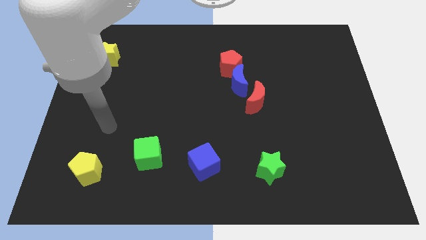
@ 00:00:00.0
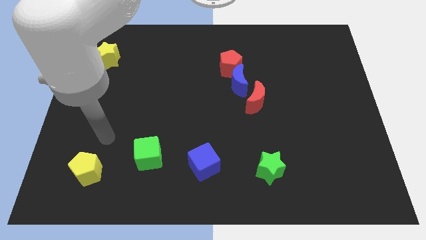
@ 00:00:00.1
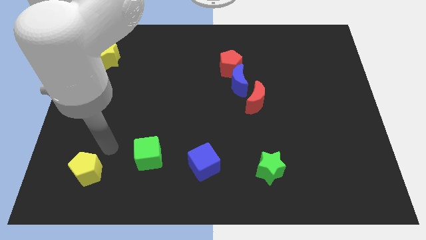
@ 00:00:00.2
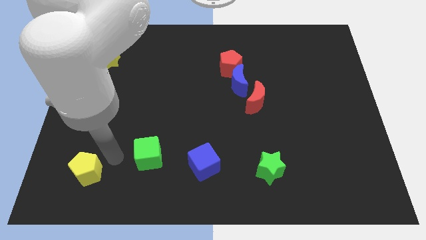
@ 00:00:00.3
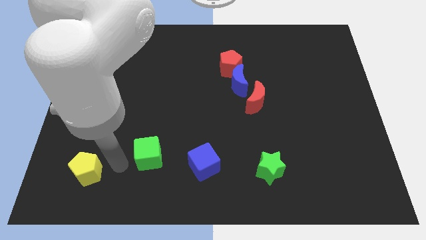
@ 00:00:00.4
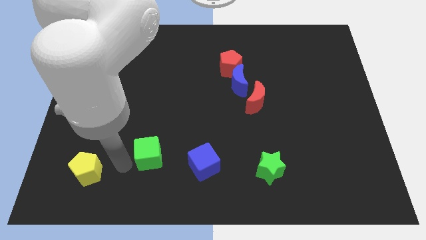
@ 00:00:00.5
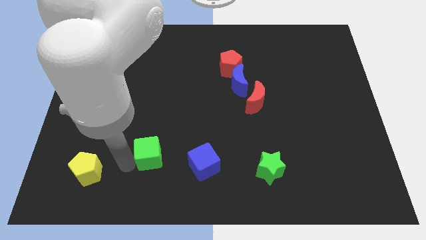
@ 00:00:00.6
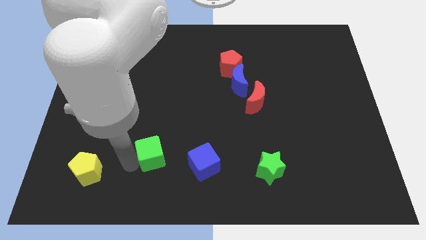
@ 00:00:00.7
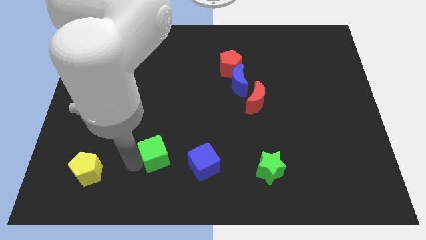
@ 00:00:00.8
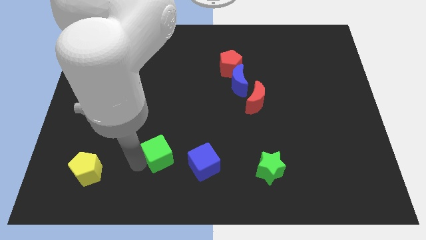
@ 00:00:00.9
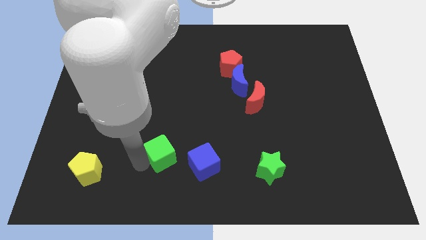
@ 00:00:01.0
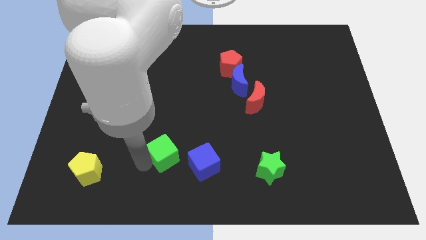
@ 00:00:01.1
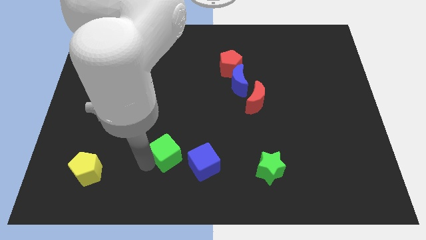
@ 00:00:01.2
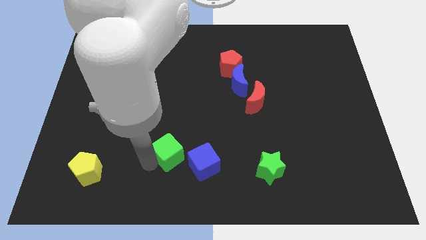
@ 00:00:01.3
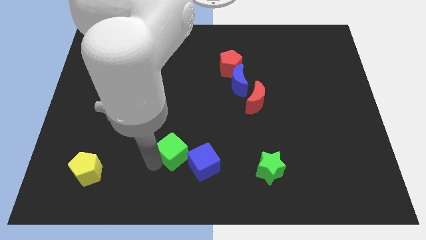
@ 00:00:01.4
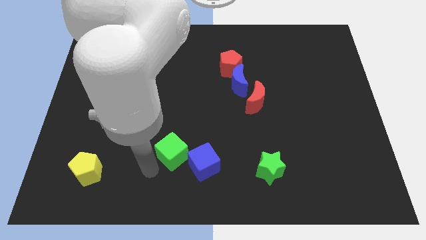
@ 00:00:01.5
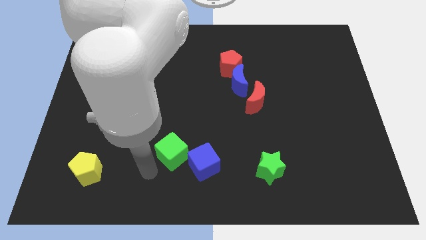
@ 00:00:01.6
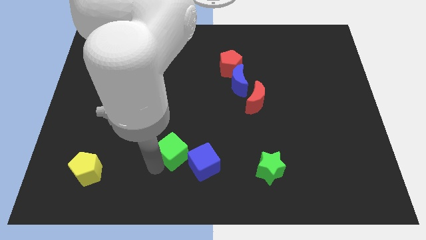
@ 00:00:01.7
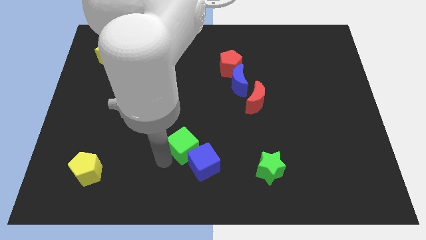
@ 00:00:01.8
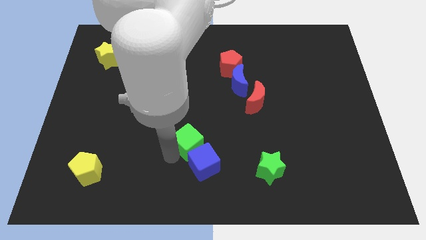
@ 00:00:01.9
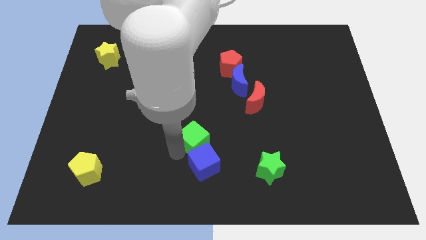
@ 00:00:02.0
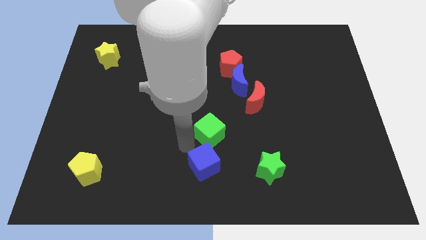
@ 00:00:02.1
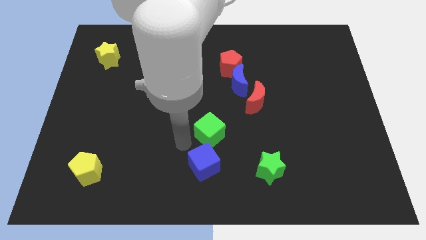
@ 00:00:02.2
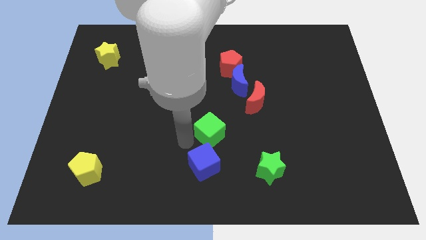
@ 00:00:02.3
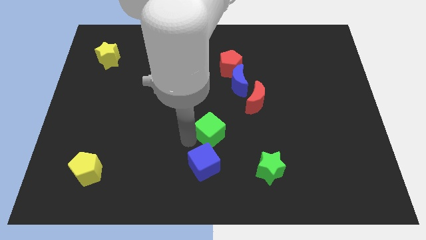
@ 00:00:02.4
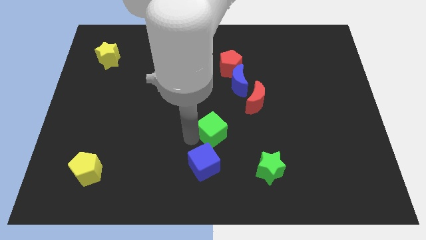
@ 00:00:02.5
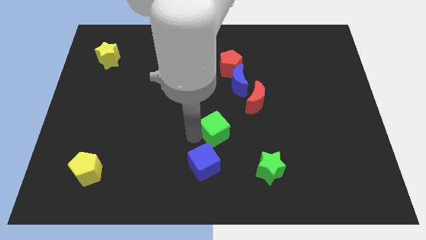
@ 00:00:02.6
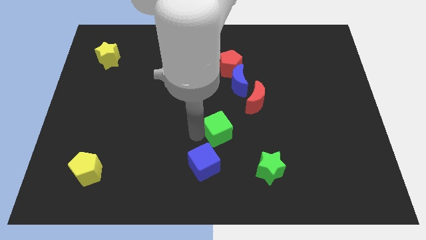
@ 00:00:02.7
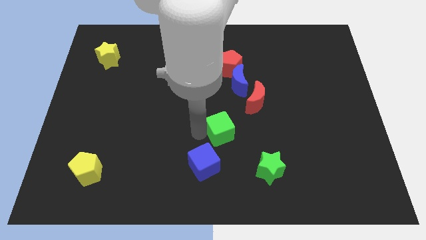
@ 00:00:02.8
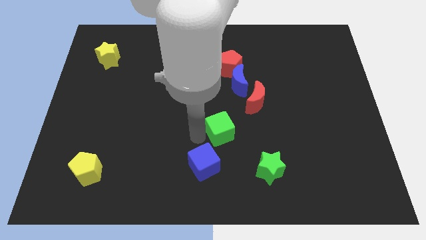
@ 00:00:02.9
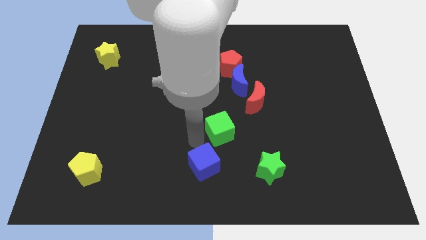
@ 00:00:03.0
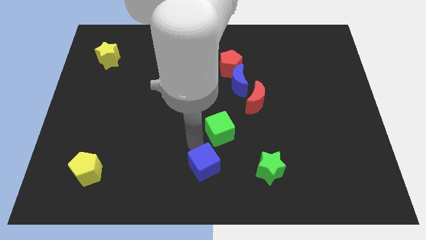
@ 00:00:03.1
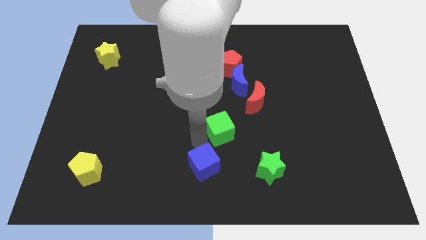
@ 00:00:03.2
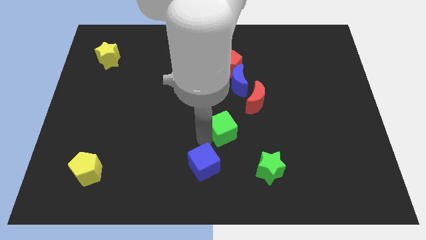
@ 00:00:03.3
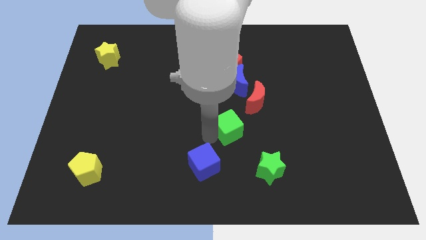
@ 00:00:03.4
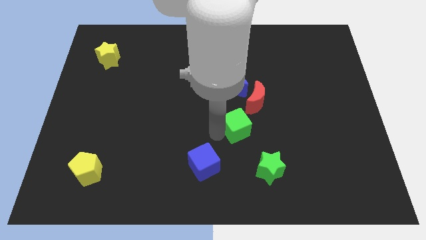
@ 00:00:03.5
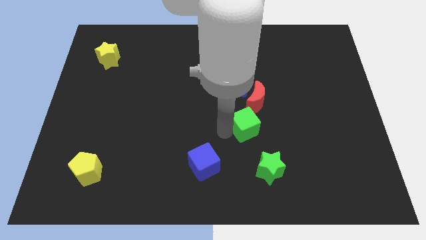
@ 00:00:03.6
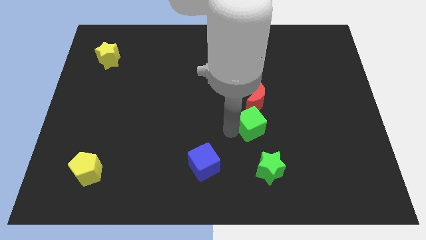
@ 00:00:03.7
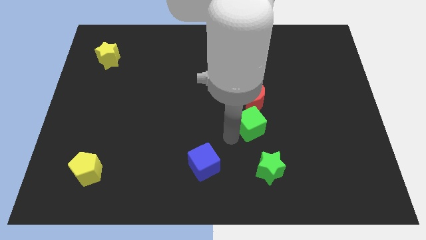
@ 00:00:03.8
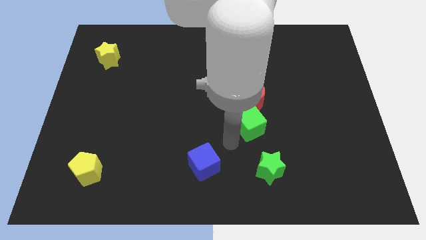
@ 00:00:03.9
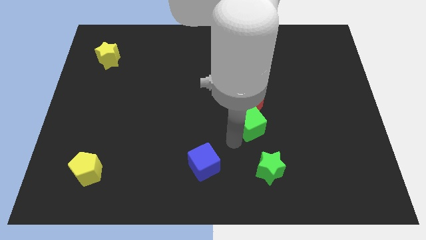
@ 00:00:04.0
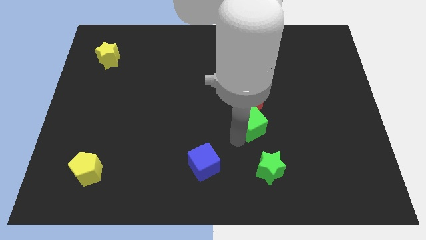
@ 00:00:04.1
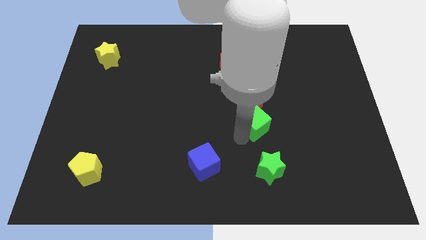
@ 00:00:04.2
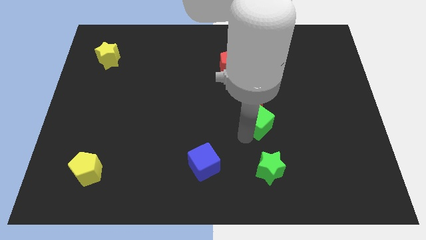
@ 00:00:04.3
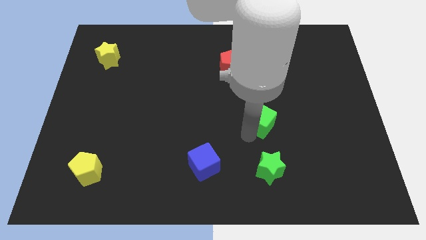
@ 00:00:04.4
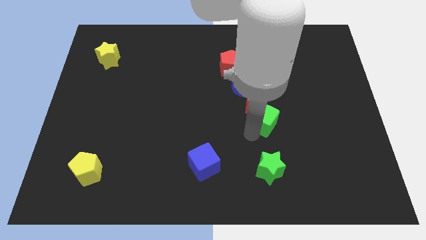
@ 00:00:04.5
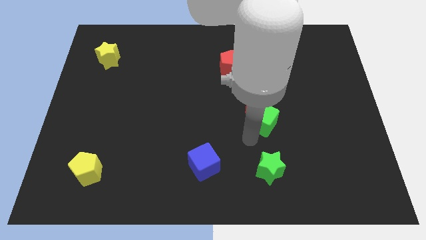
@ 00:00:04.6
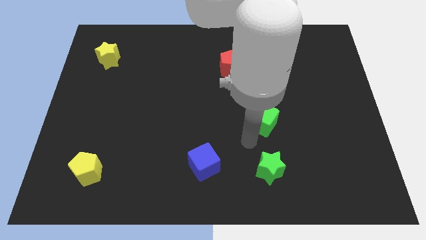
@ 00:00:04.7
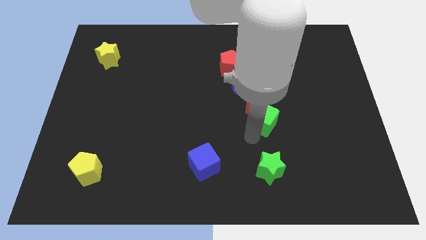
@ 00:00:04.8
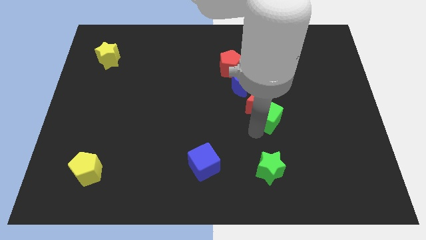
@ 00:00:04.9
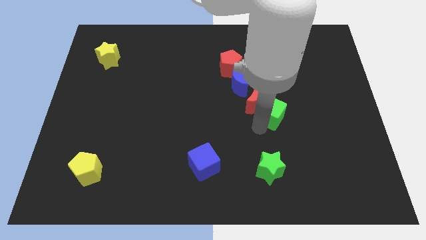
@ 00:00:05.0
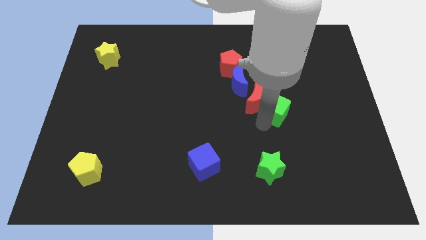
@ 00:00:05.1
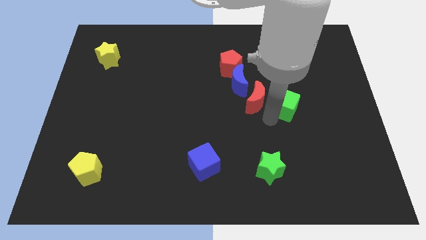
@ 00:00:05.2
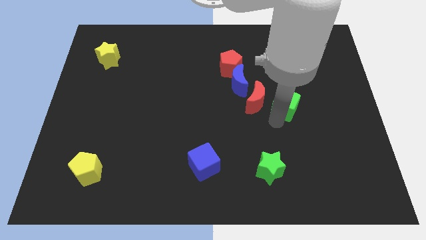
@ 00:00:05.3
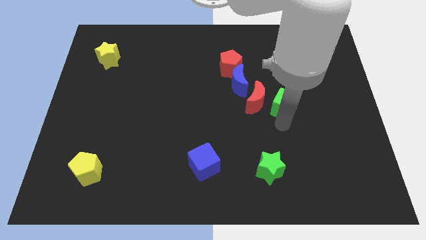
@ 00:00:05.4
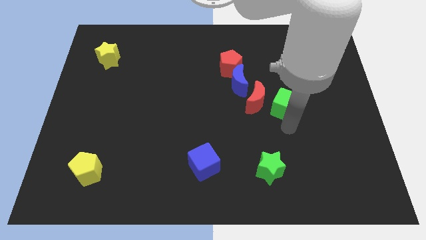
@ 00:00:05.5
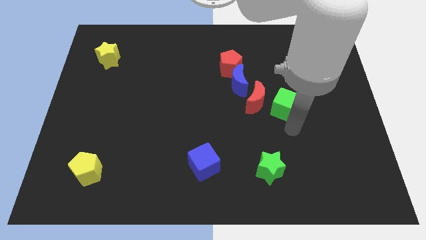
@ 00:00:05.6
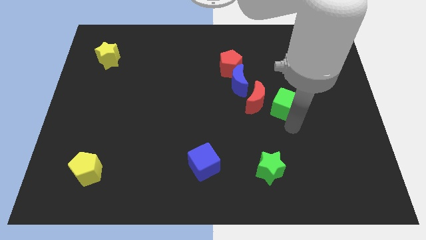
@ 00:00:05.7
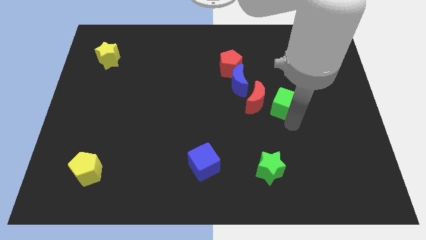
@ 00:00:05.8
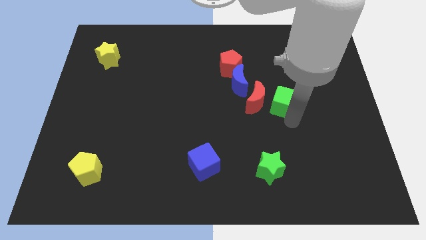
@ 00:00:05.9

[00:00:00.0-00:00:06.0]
push the green cube to the top right of the red moon
